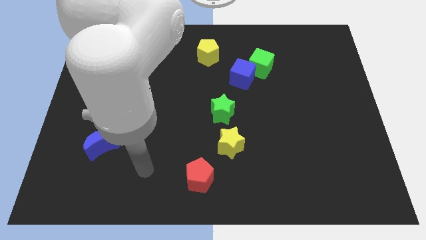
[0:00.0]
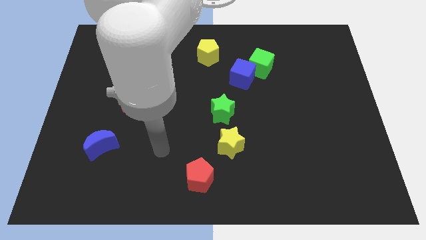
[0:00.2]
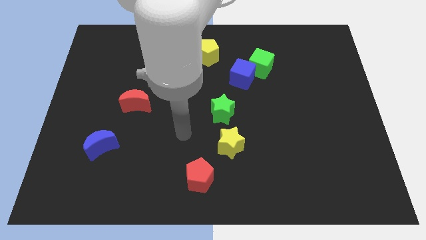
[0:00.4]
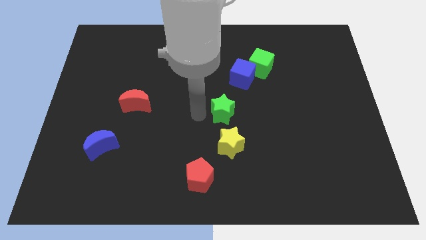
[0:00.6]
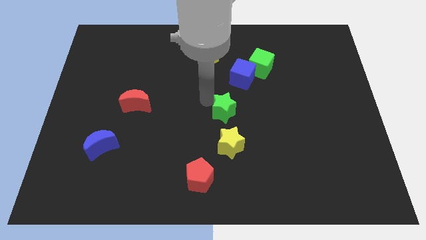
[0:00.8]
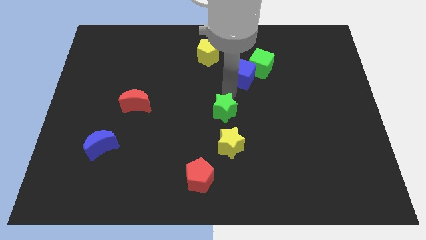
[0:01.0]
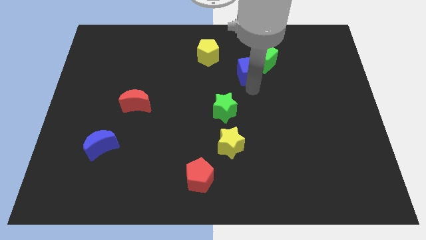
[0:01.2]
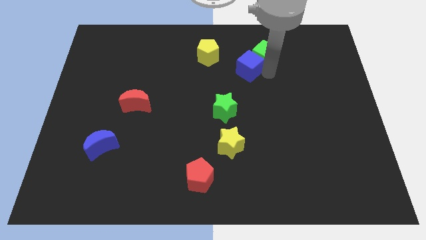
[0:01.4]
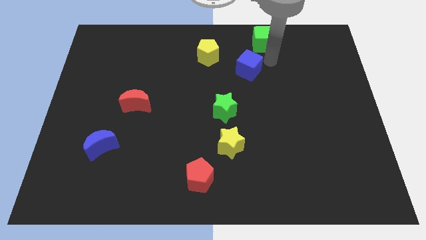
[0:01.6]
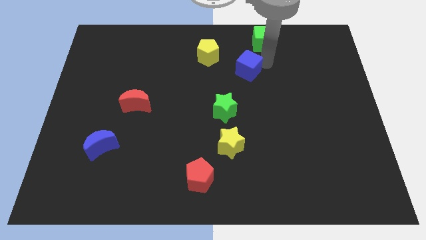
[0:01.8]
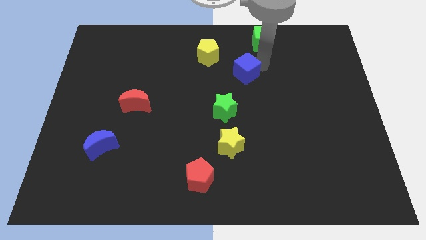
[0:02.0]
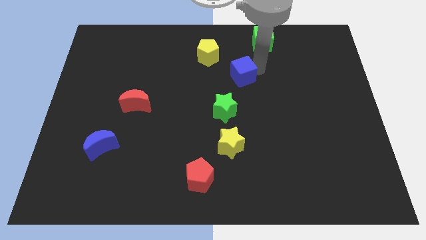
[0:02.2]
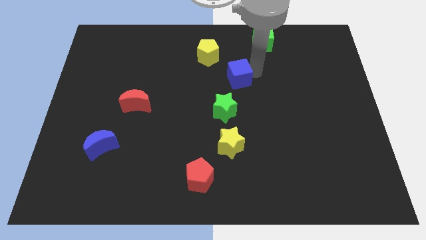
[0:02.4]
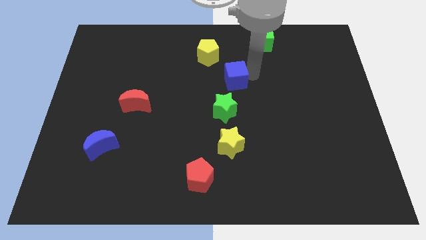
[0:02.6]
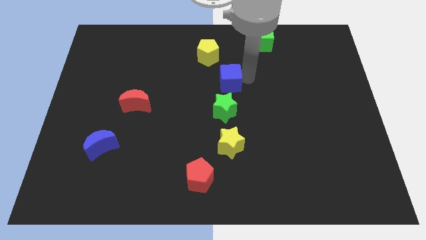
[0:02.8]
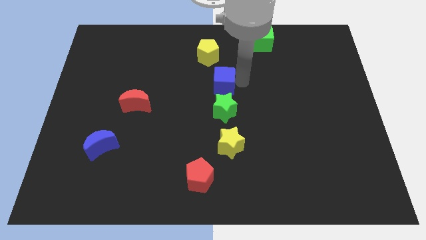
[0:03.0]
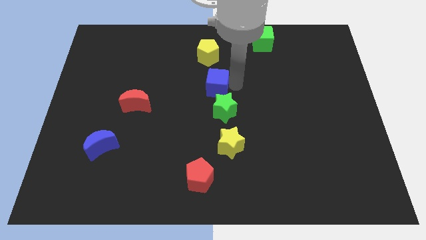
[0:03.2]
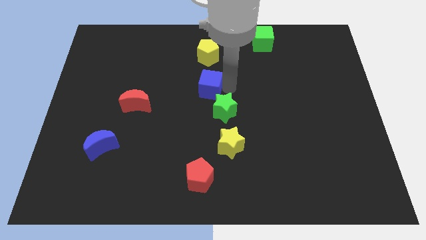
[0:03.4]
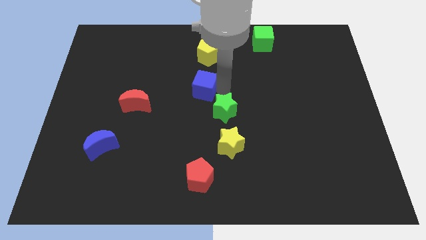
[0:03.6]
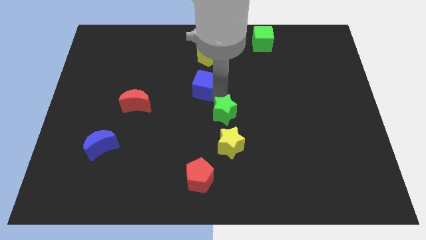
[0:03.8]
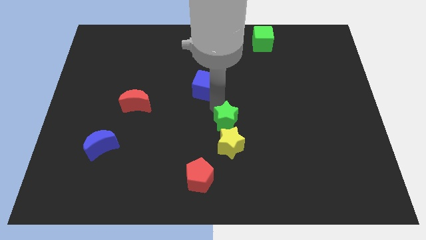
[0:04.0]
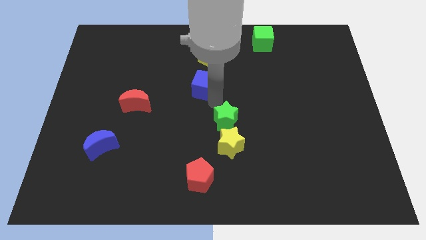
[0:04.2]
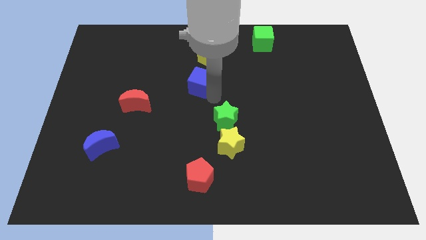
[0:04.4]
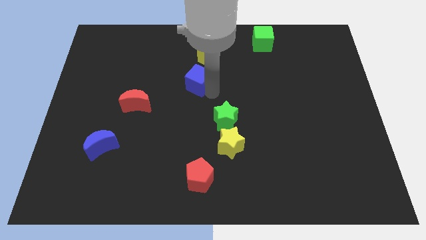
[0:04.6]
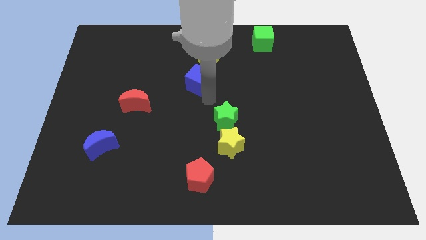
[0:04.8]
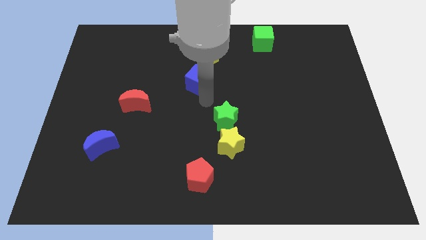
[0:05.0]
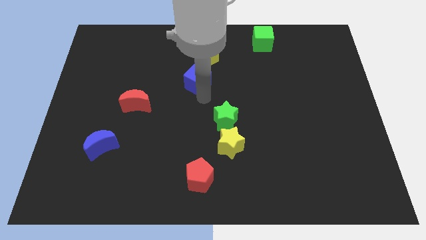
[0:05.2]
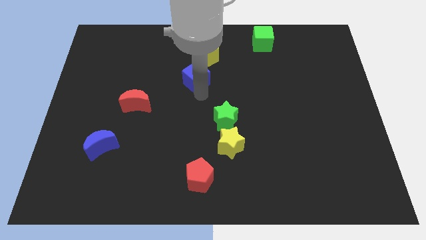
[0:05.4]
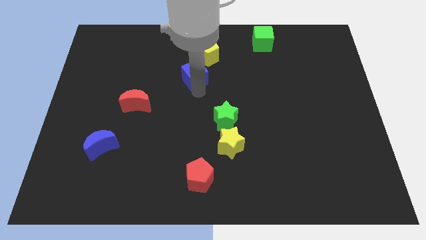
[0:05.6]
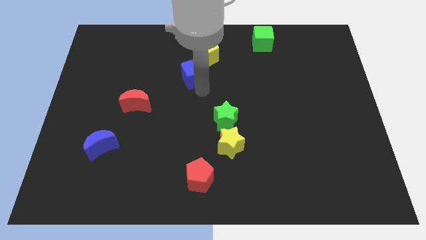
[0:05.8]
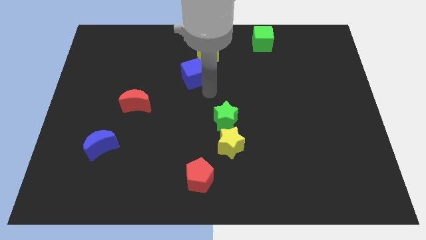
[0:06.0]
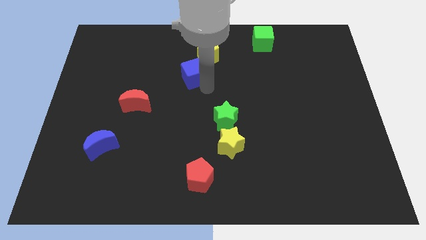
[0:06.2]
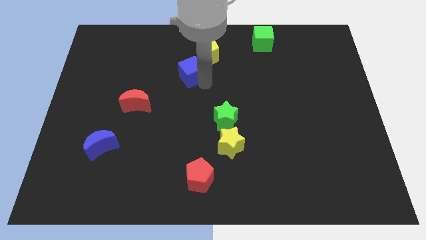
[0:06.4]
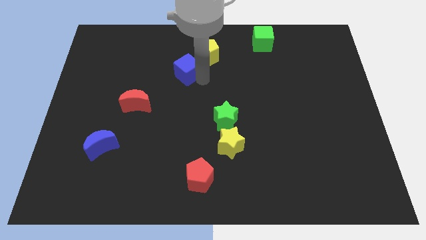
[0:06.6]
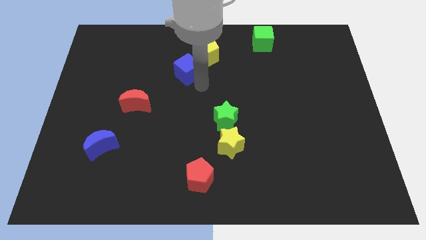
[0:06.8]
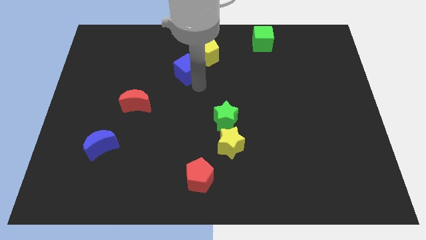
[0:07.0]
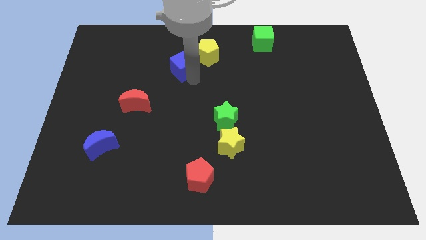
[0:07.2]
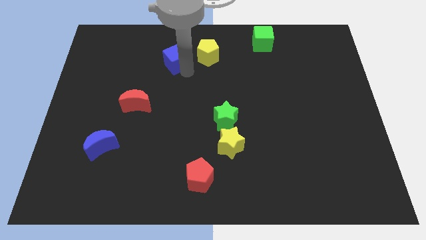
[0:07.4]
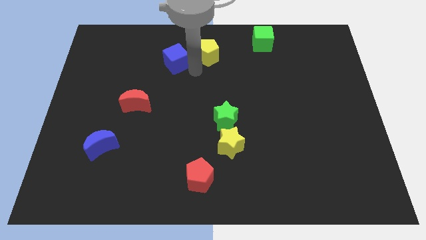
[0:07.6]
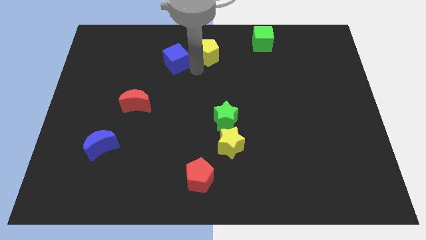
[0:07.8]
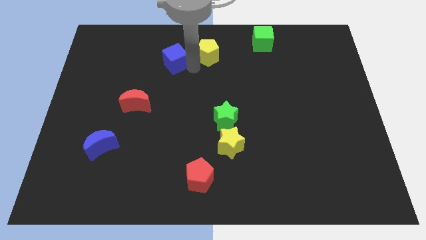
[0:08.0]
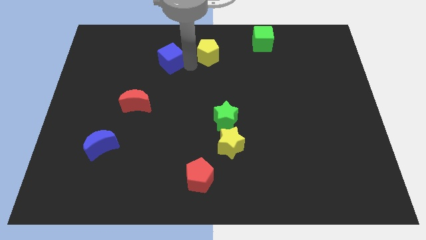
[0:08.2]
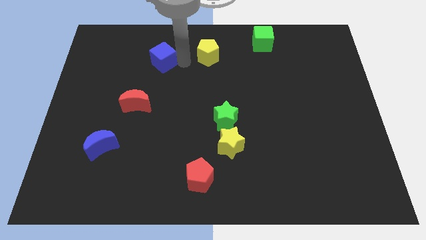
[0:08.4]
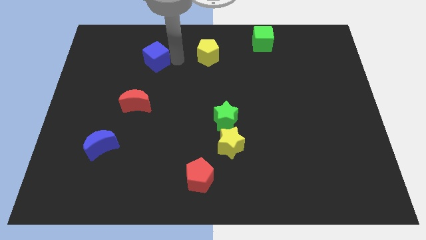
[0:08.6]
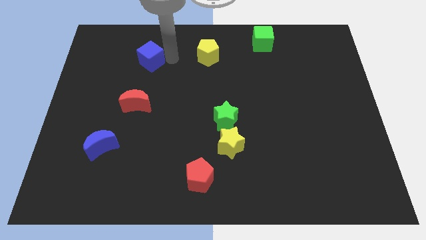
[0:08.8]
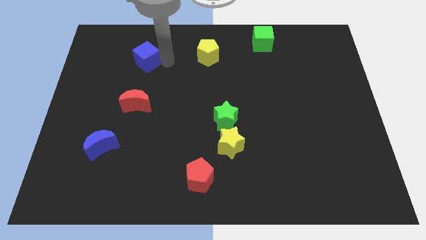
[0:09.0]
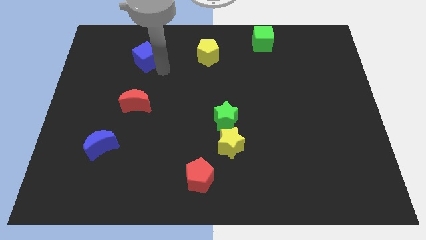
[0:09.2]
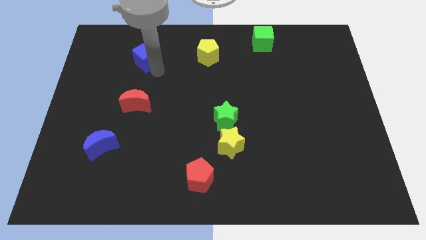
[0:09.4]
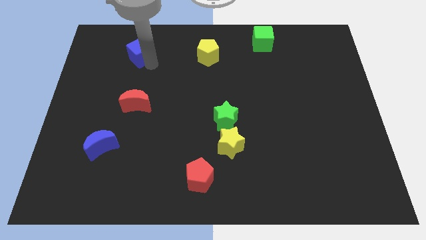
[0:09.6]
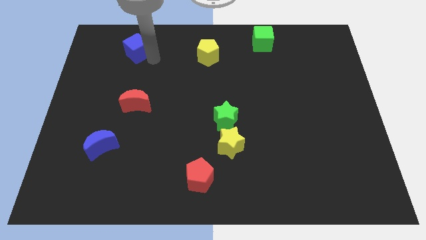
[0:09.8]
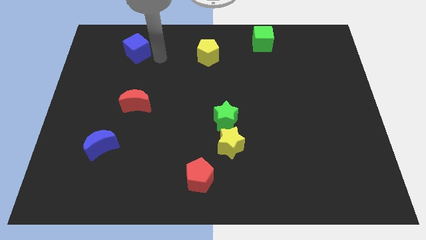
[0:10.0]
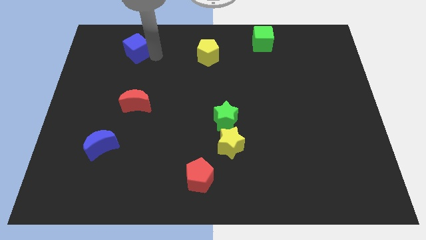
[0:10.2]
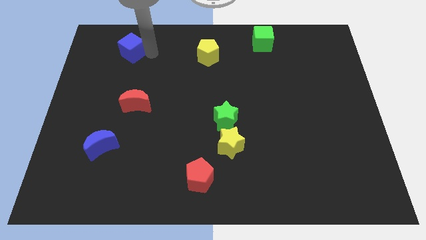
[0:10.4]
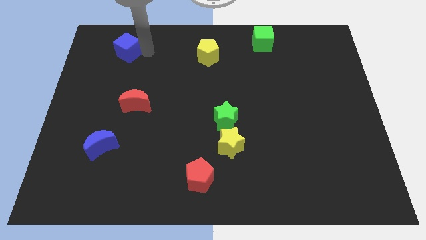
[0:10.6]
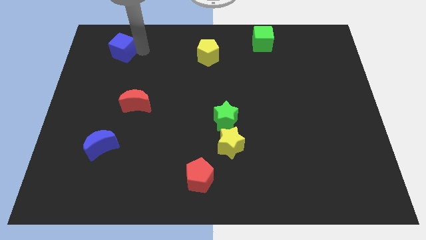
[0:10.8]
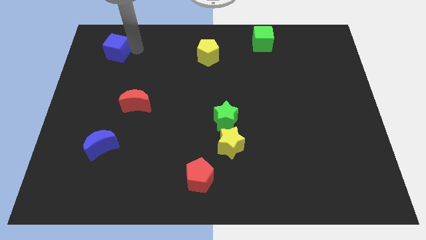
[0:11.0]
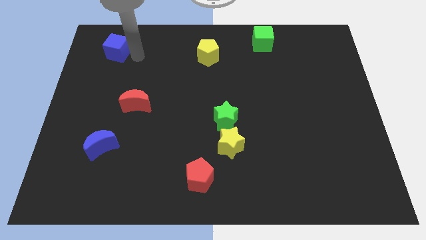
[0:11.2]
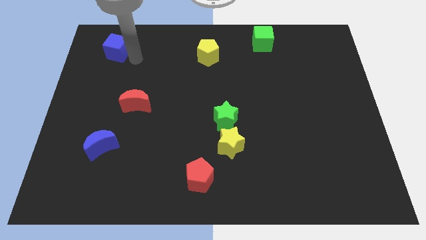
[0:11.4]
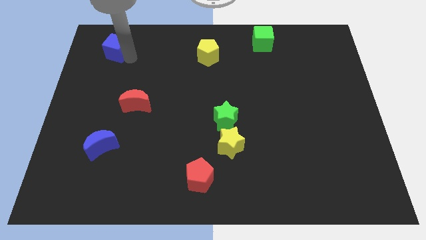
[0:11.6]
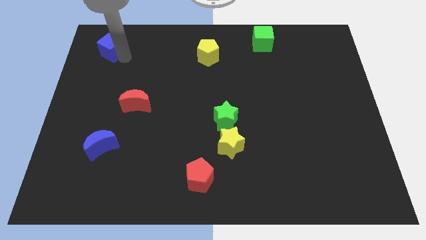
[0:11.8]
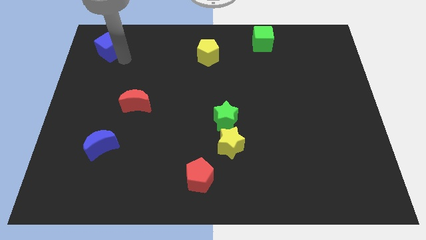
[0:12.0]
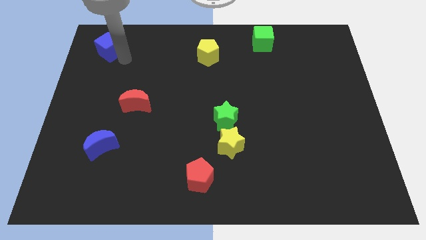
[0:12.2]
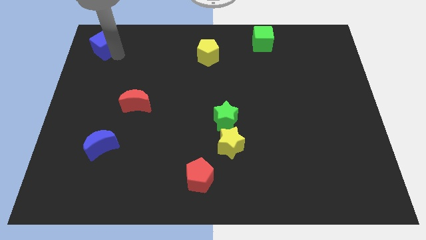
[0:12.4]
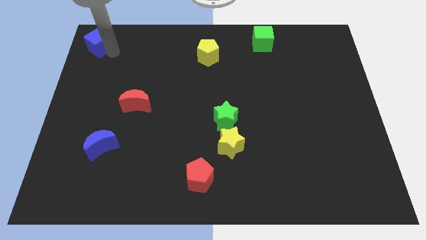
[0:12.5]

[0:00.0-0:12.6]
slide the blue cube to the upper left corner
